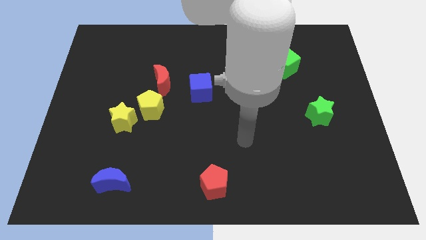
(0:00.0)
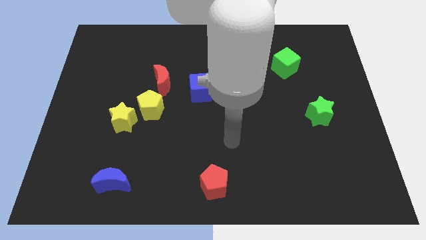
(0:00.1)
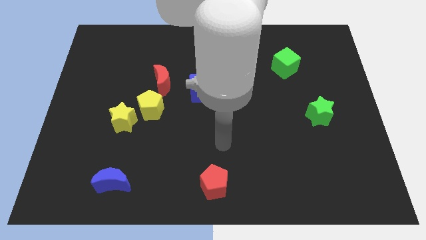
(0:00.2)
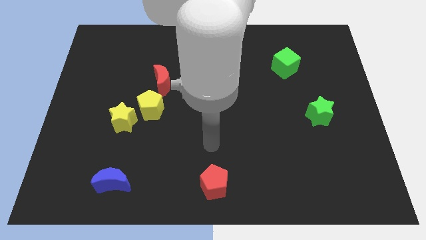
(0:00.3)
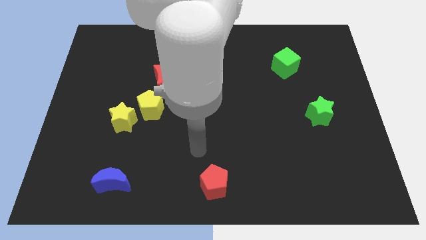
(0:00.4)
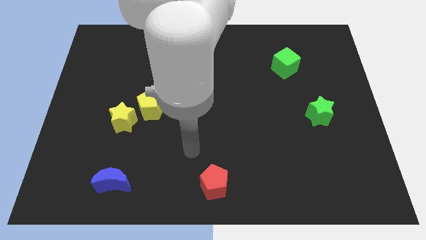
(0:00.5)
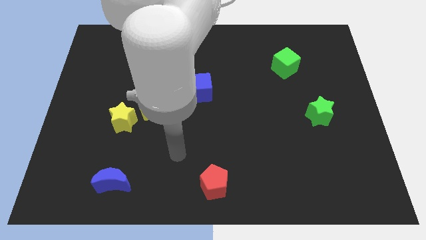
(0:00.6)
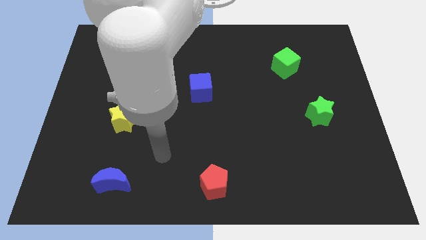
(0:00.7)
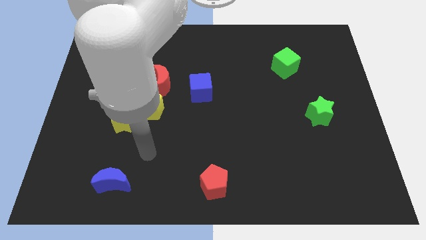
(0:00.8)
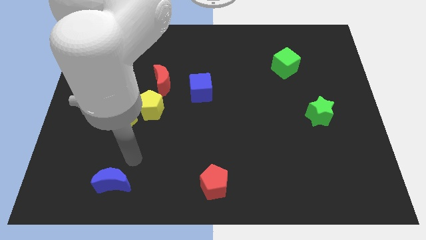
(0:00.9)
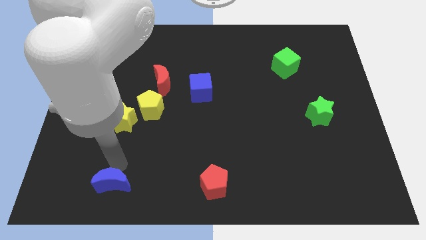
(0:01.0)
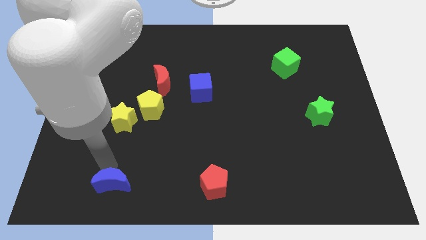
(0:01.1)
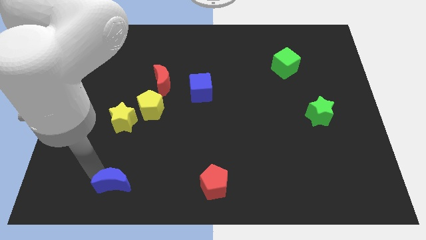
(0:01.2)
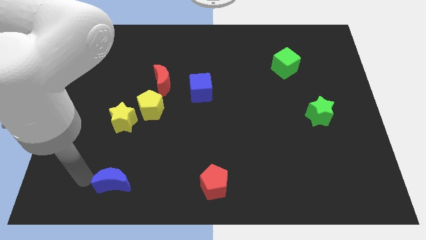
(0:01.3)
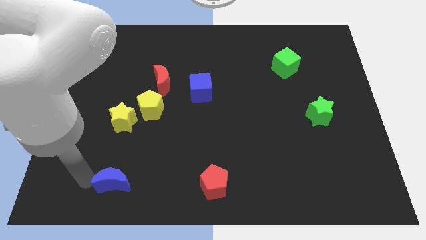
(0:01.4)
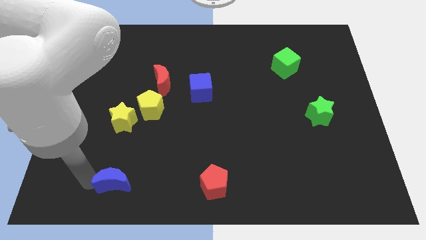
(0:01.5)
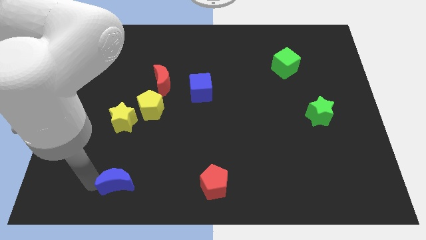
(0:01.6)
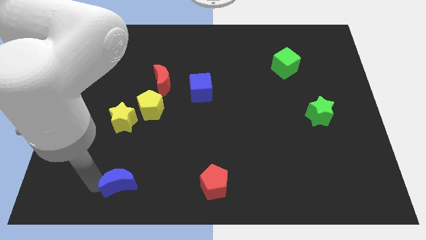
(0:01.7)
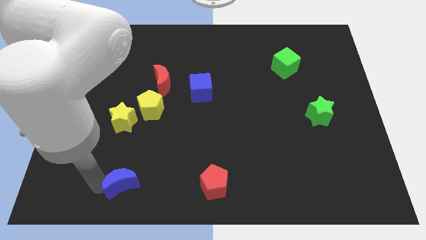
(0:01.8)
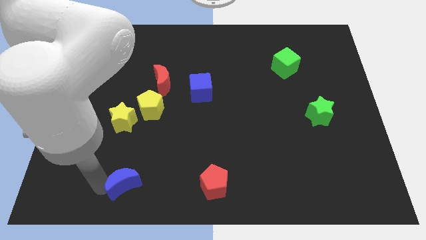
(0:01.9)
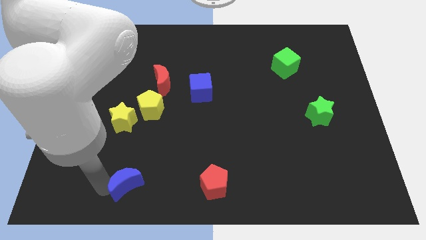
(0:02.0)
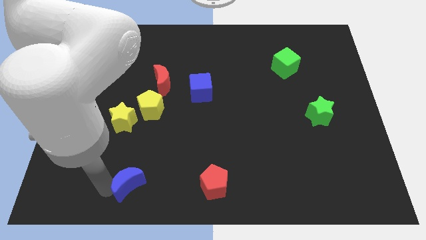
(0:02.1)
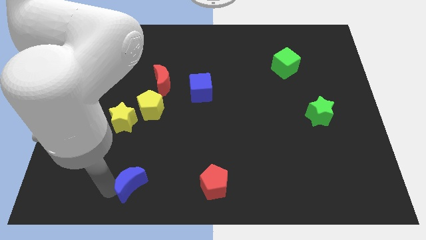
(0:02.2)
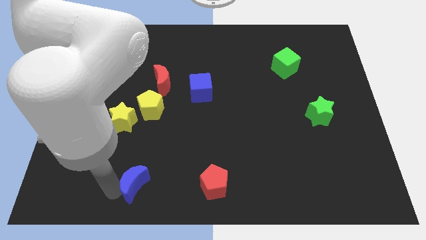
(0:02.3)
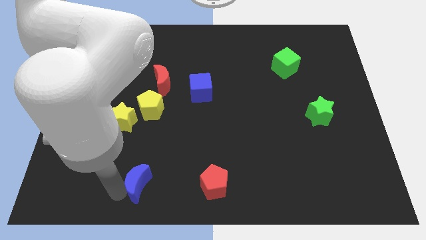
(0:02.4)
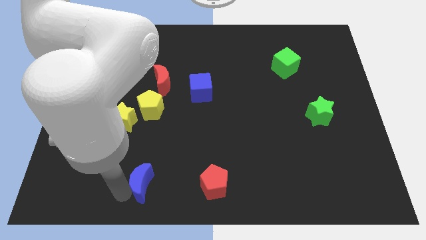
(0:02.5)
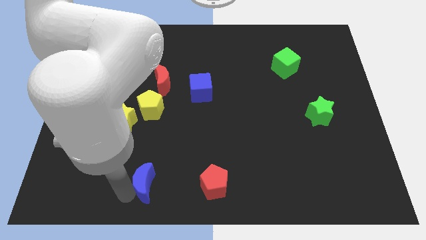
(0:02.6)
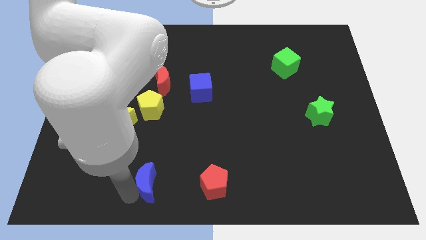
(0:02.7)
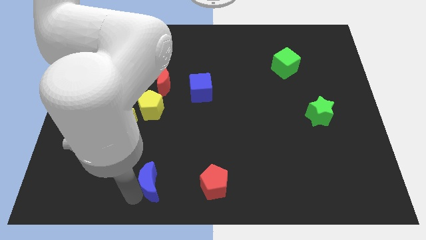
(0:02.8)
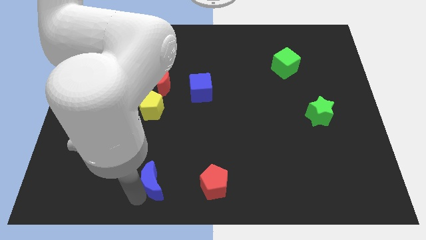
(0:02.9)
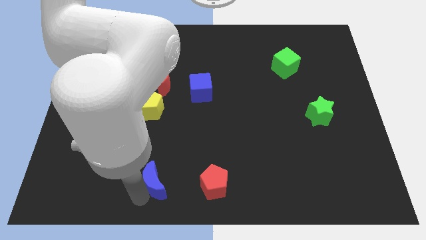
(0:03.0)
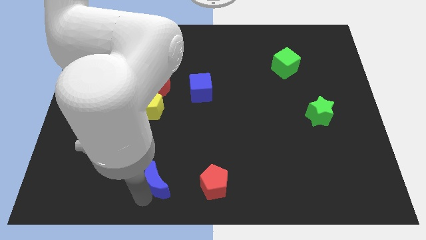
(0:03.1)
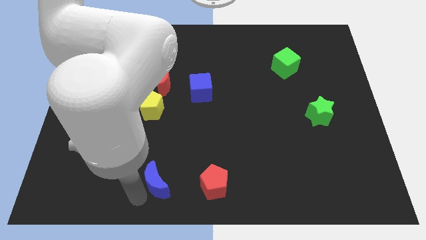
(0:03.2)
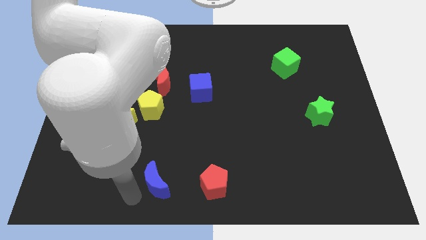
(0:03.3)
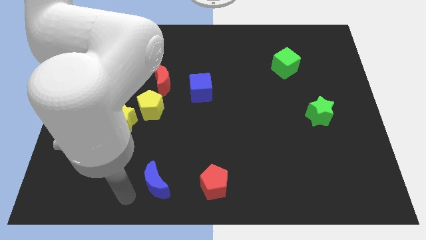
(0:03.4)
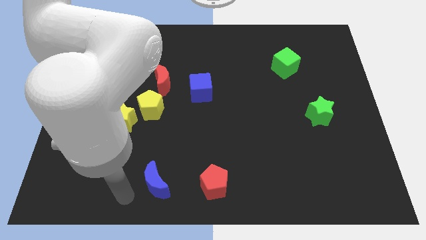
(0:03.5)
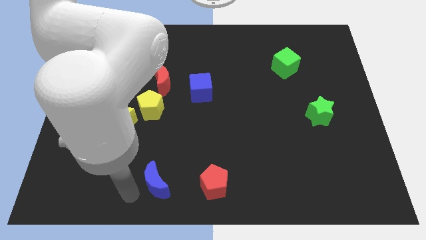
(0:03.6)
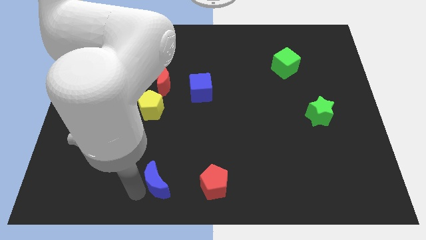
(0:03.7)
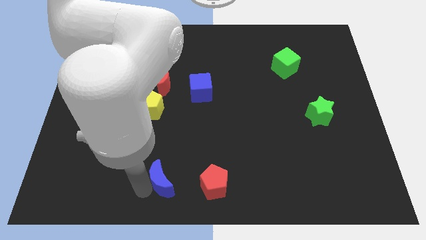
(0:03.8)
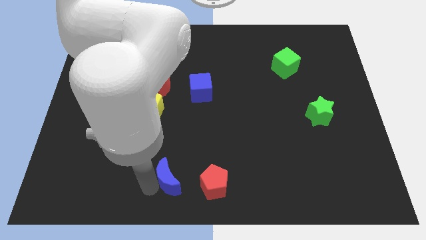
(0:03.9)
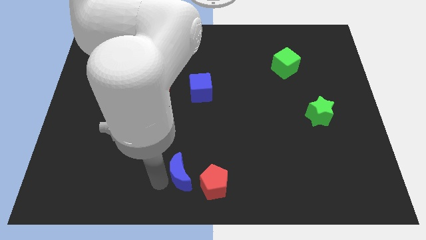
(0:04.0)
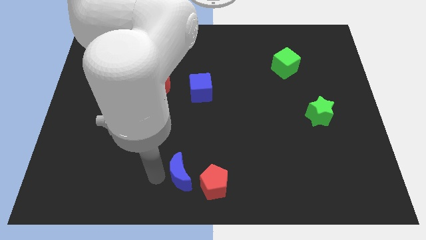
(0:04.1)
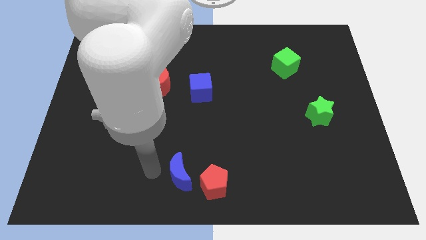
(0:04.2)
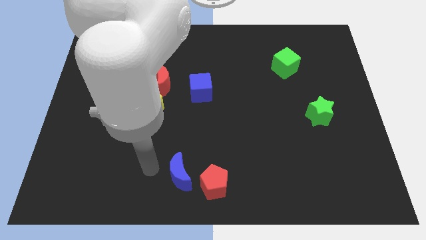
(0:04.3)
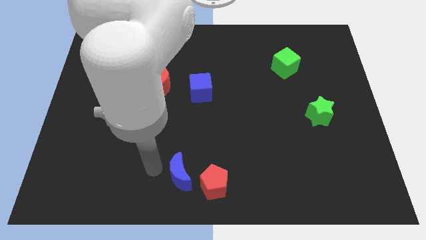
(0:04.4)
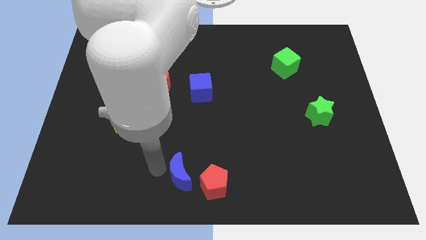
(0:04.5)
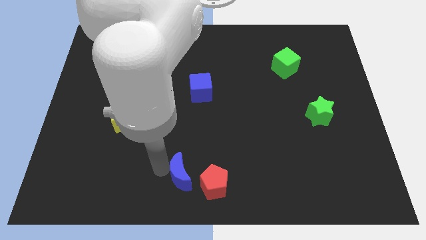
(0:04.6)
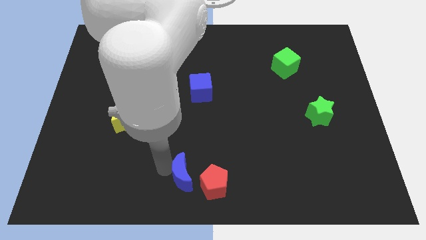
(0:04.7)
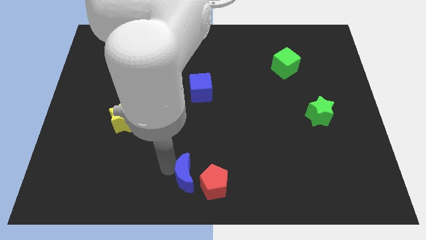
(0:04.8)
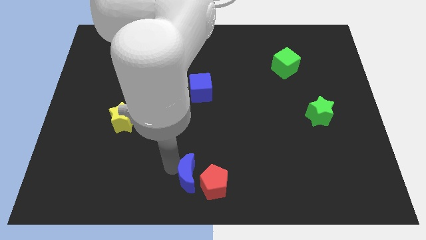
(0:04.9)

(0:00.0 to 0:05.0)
push the blue moon towards the red pentagon

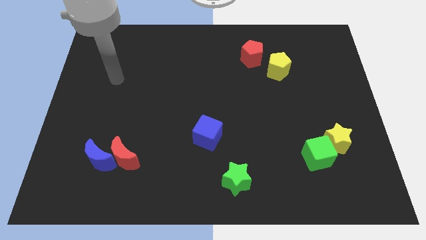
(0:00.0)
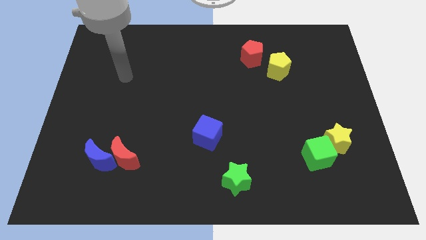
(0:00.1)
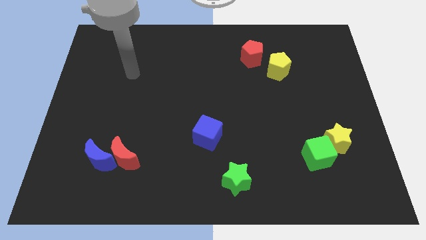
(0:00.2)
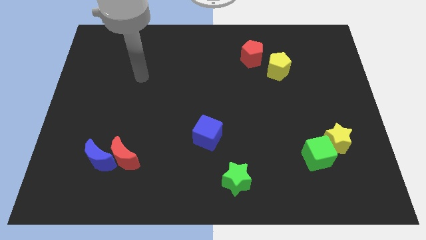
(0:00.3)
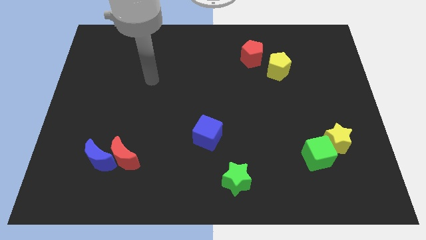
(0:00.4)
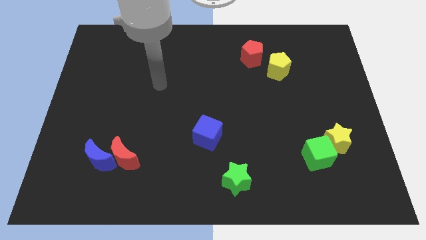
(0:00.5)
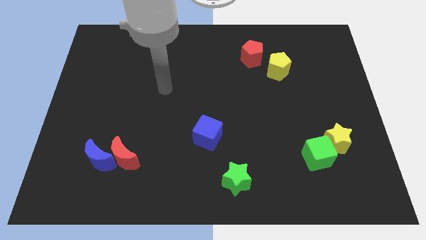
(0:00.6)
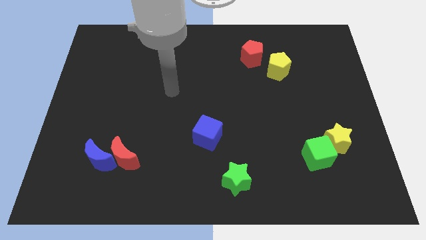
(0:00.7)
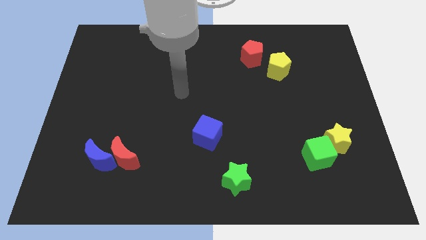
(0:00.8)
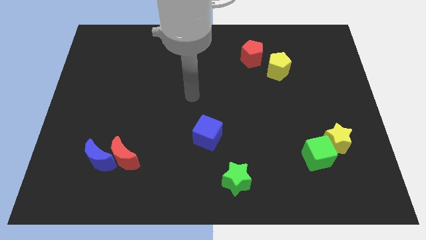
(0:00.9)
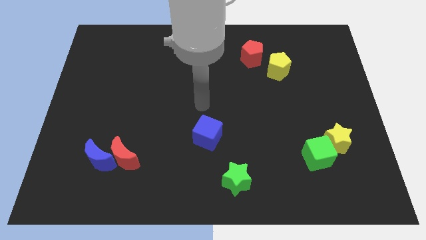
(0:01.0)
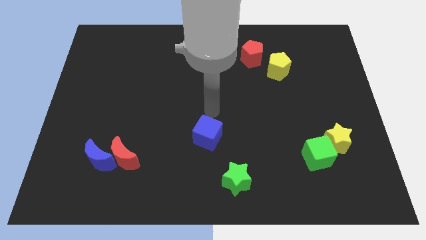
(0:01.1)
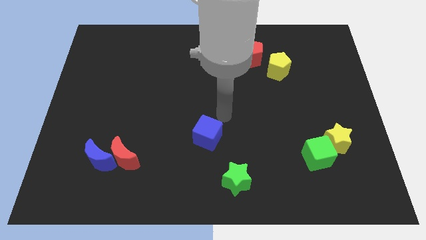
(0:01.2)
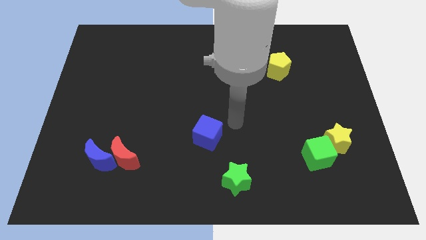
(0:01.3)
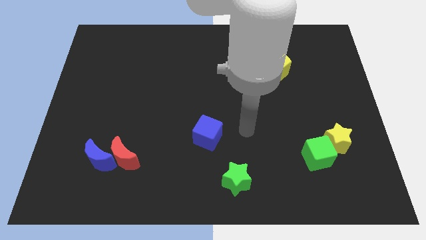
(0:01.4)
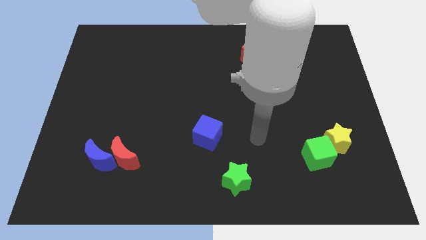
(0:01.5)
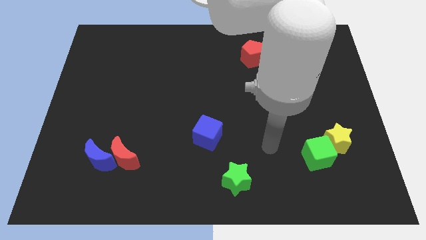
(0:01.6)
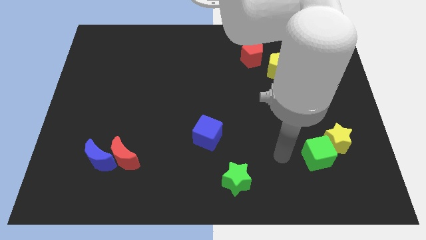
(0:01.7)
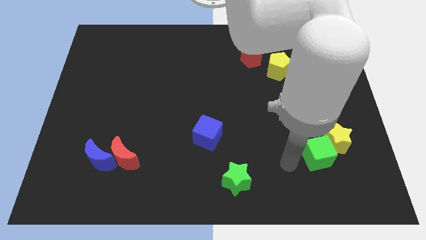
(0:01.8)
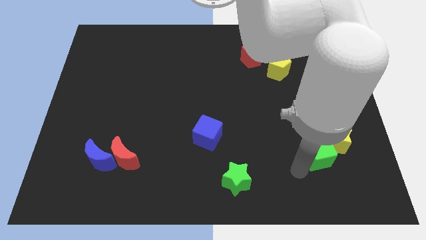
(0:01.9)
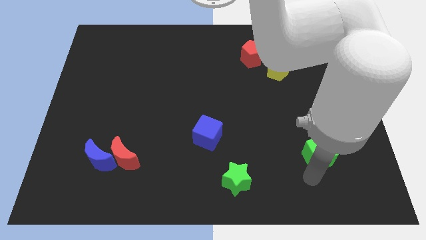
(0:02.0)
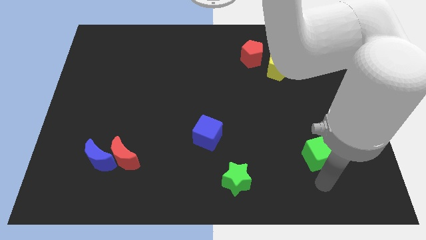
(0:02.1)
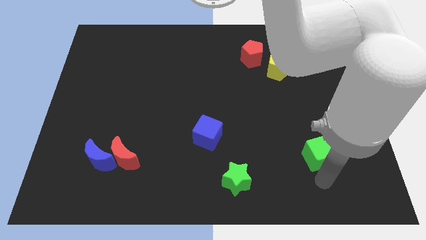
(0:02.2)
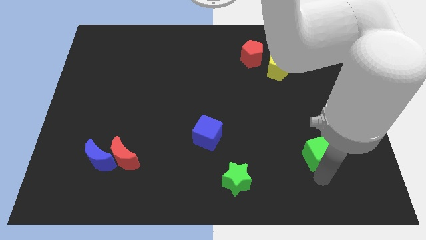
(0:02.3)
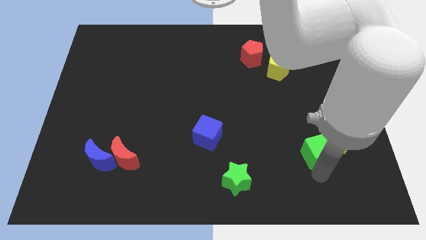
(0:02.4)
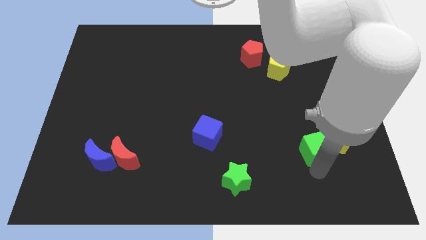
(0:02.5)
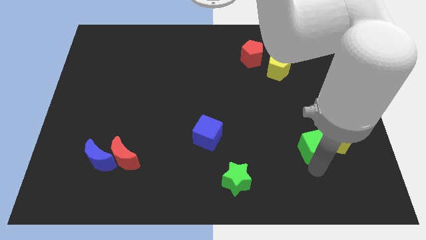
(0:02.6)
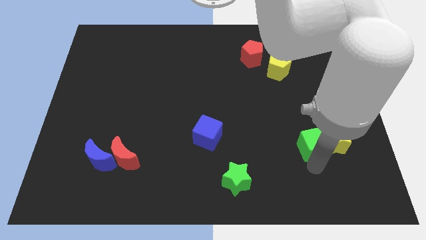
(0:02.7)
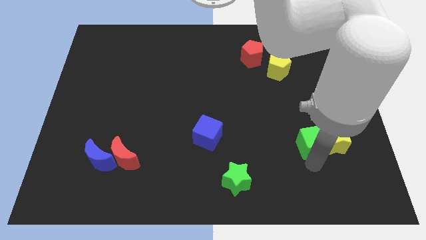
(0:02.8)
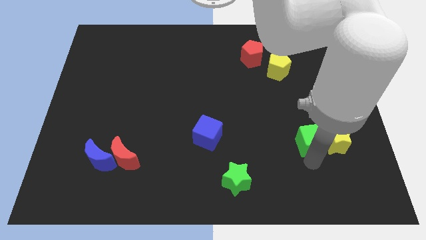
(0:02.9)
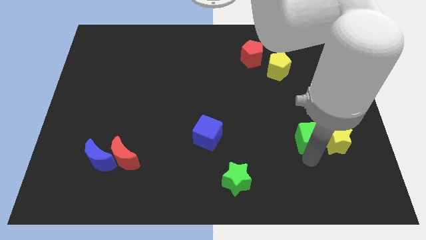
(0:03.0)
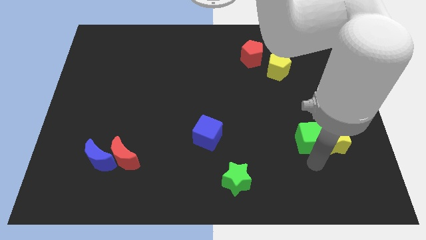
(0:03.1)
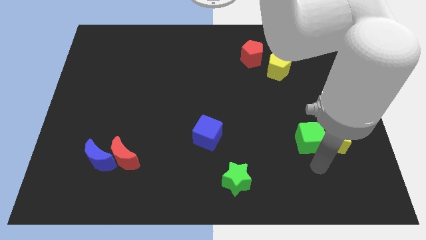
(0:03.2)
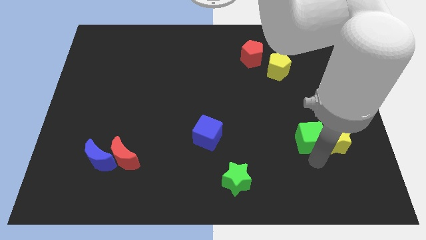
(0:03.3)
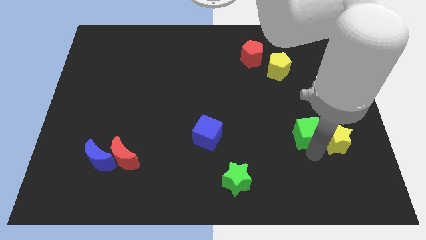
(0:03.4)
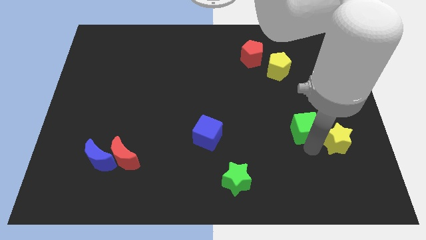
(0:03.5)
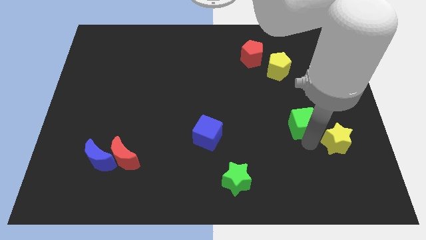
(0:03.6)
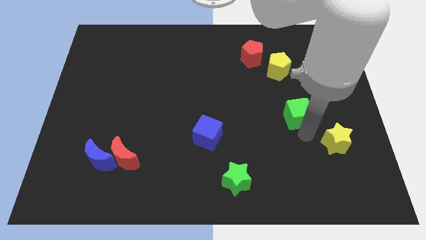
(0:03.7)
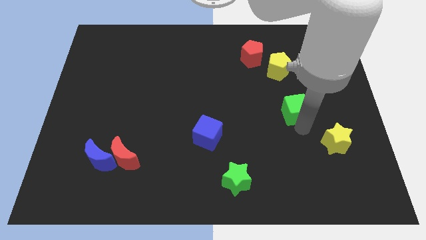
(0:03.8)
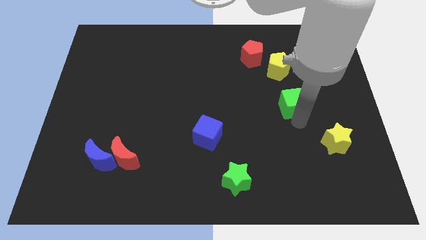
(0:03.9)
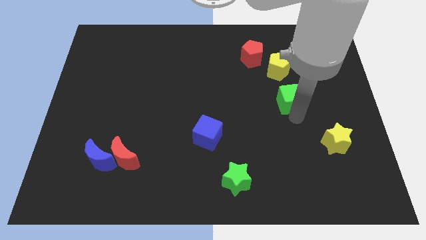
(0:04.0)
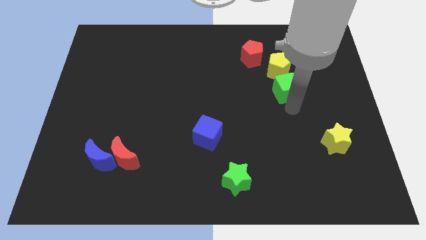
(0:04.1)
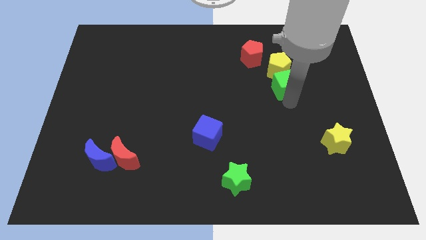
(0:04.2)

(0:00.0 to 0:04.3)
slide the green cube close to the yellow pentagon
